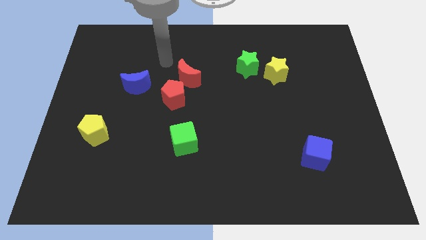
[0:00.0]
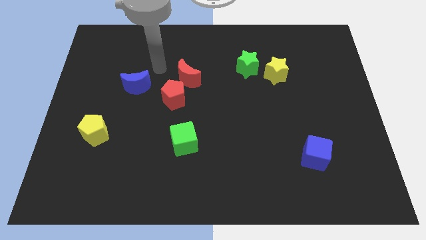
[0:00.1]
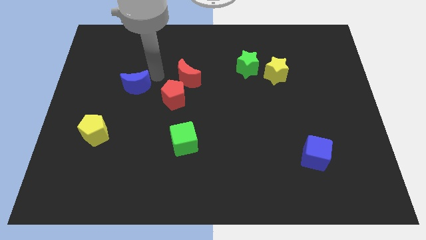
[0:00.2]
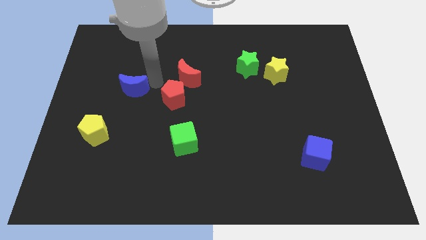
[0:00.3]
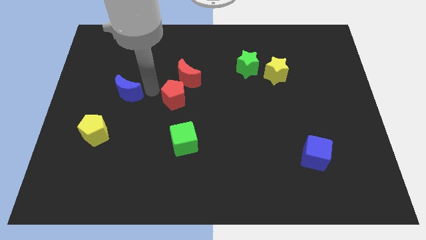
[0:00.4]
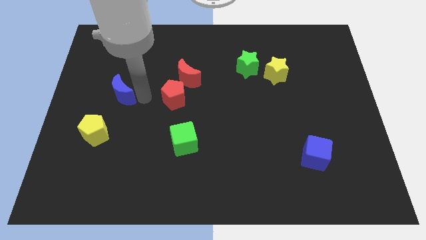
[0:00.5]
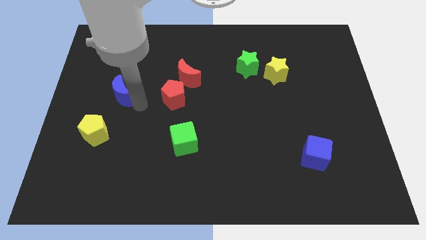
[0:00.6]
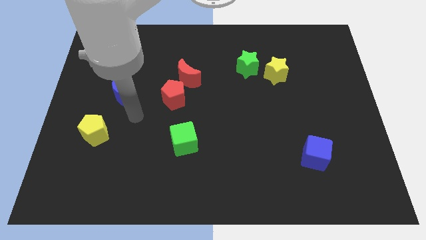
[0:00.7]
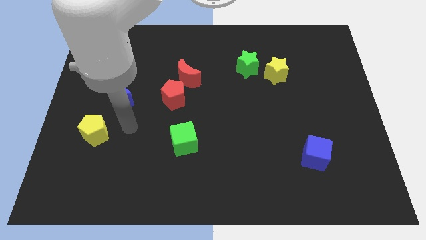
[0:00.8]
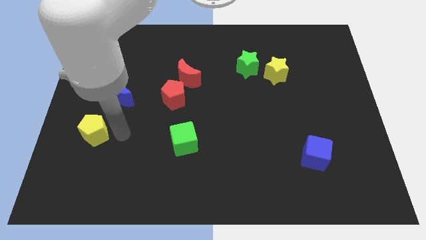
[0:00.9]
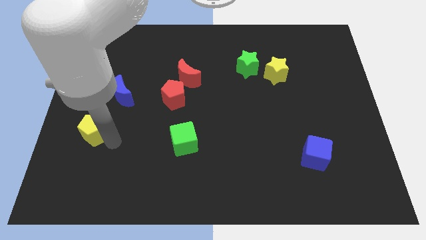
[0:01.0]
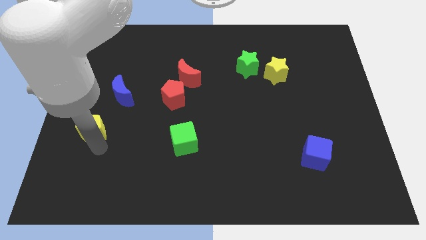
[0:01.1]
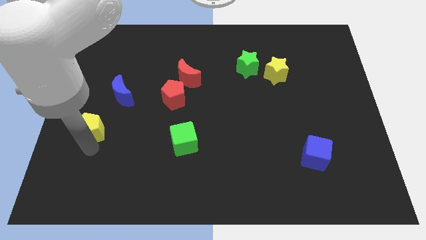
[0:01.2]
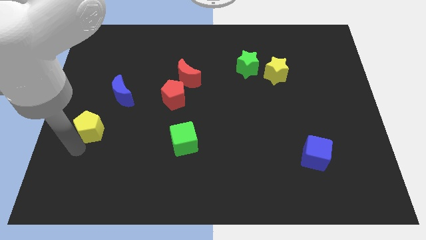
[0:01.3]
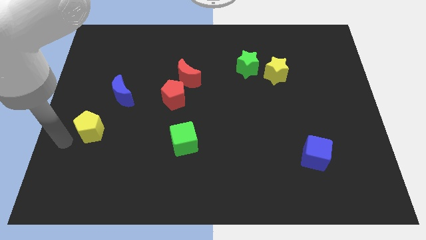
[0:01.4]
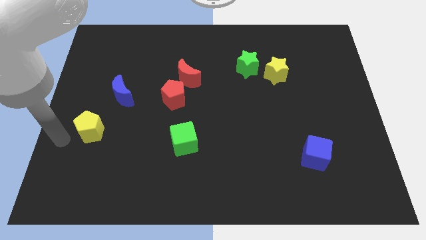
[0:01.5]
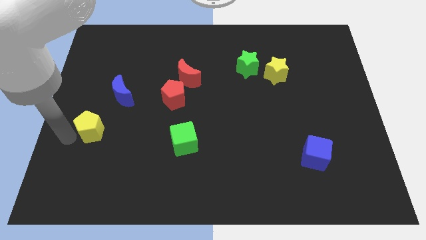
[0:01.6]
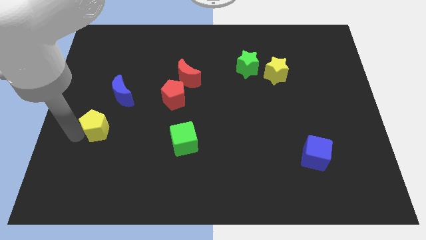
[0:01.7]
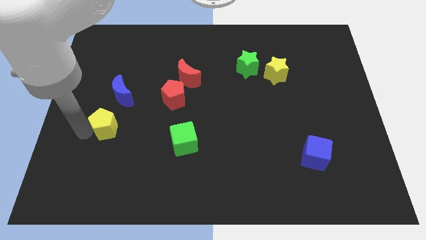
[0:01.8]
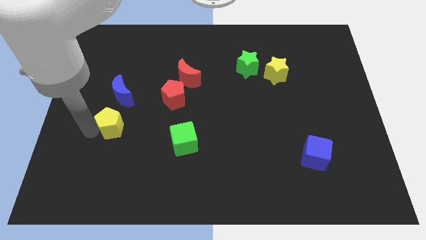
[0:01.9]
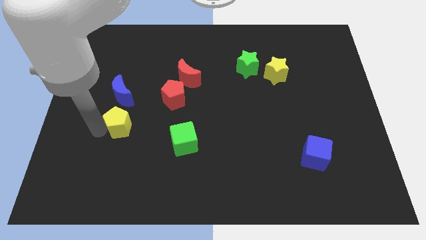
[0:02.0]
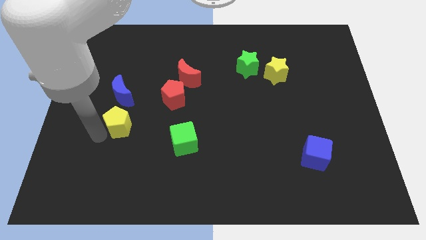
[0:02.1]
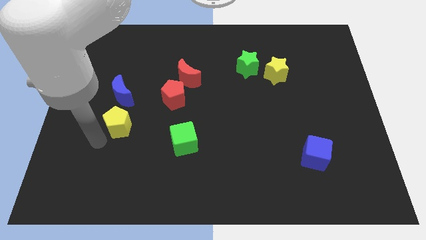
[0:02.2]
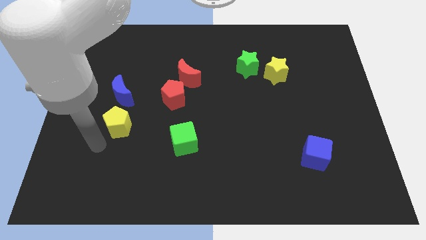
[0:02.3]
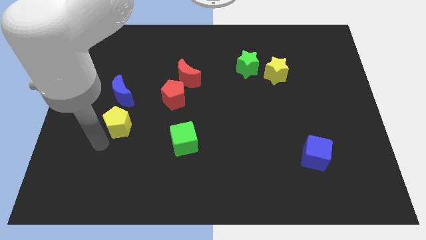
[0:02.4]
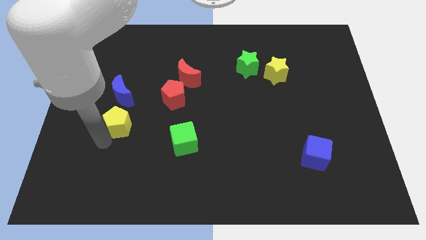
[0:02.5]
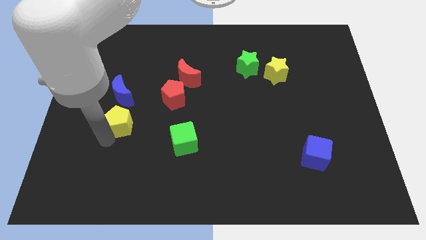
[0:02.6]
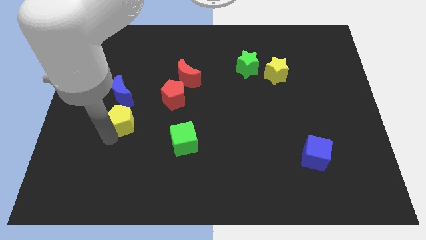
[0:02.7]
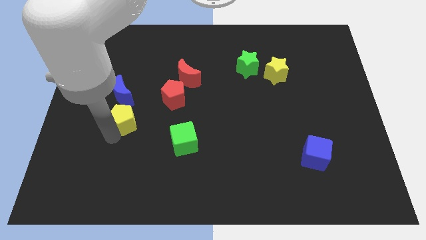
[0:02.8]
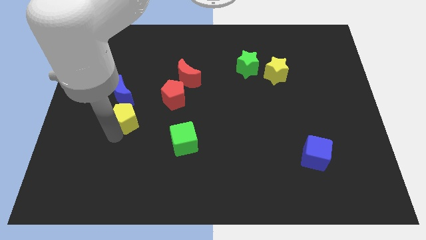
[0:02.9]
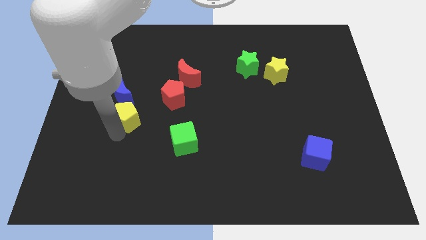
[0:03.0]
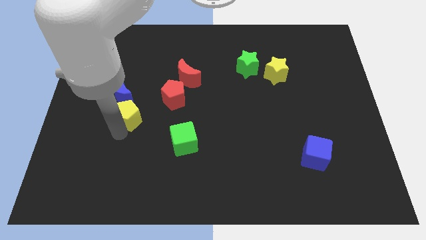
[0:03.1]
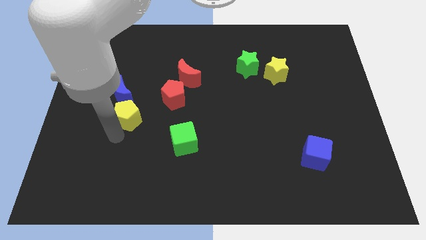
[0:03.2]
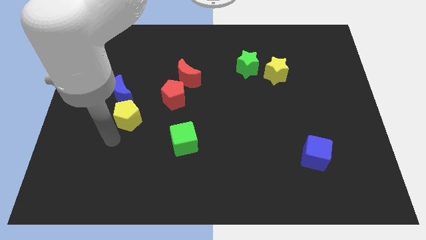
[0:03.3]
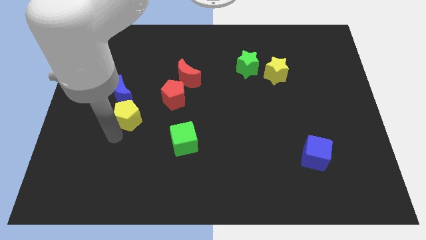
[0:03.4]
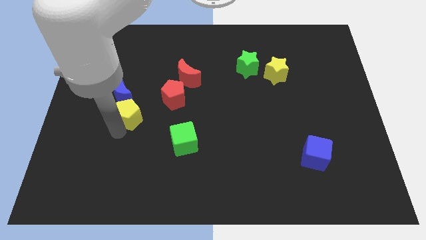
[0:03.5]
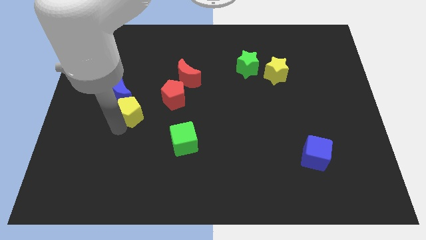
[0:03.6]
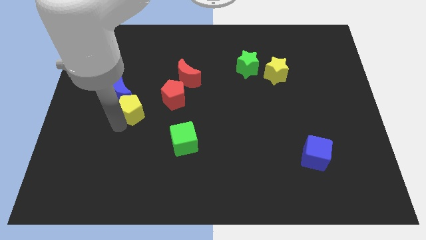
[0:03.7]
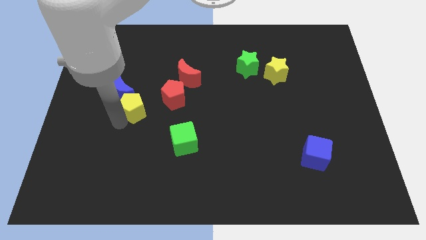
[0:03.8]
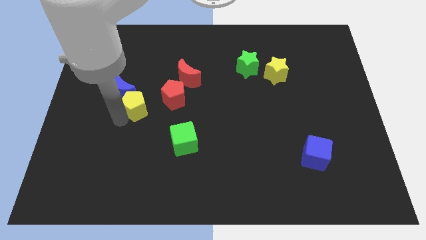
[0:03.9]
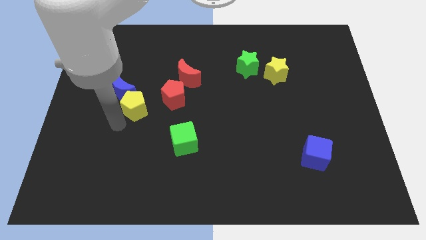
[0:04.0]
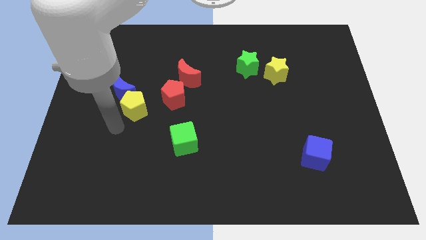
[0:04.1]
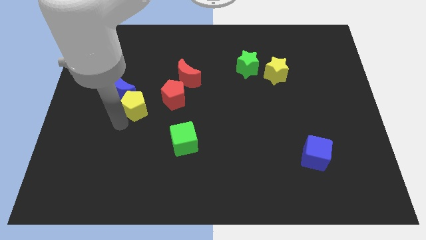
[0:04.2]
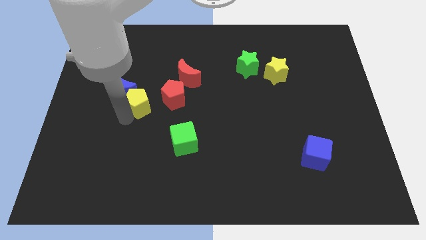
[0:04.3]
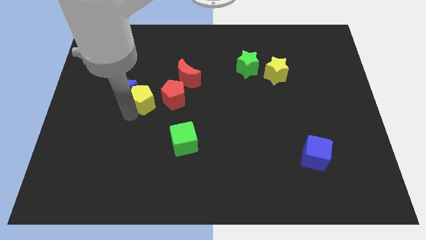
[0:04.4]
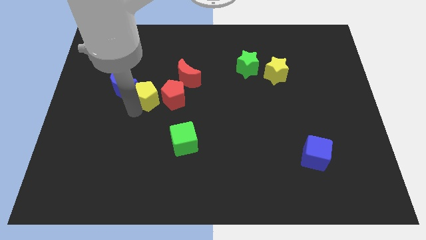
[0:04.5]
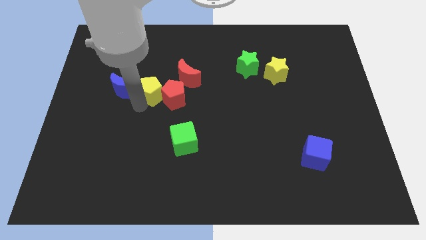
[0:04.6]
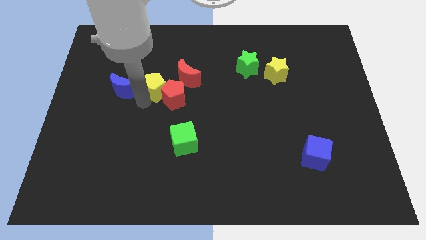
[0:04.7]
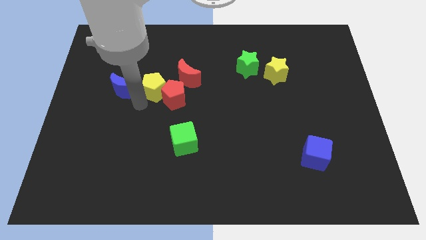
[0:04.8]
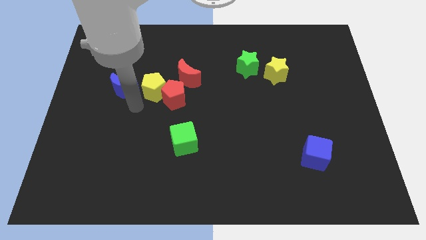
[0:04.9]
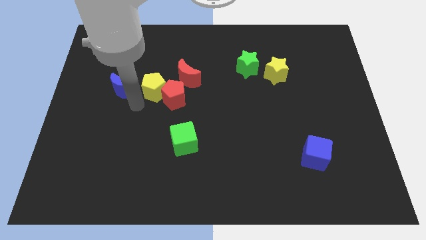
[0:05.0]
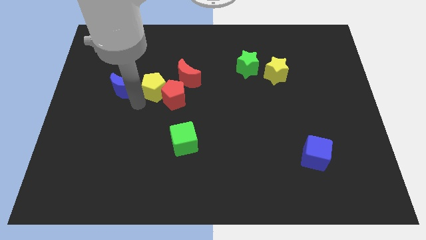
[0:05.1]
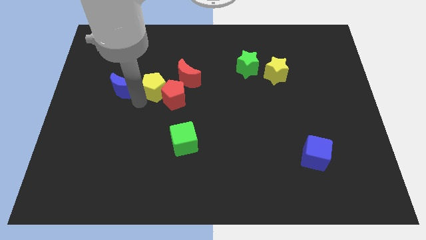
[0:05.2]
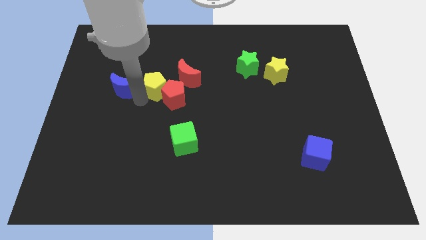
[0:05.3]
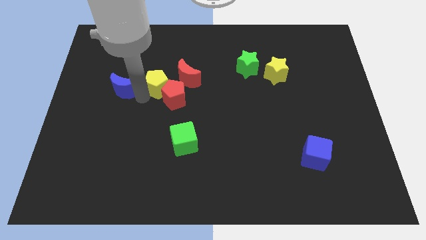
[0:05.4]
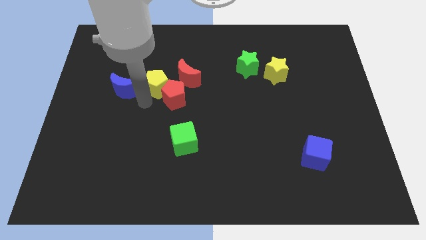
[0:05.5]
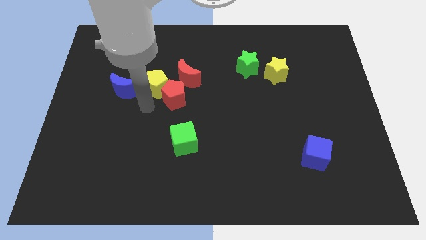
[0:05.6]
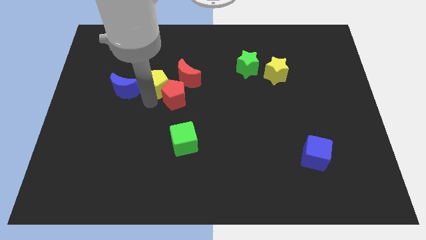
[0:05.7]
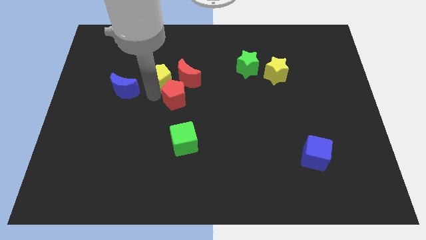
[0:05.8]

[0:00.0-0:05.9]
move the yellow pentagon upwards and to the right

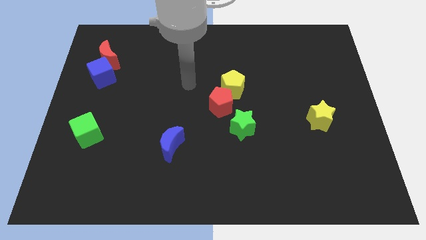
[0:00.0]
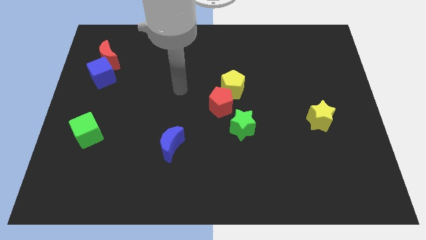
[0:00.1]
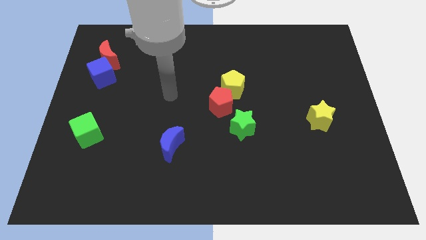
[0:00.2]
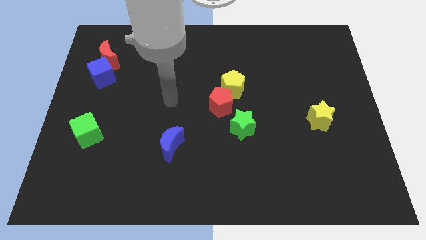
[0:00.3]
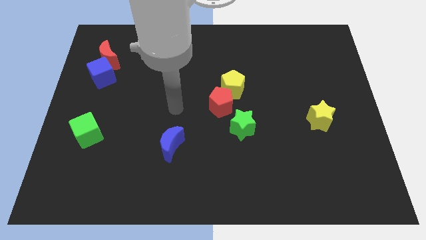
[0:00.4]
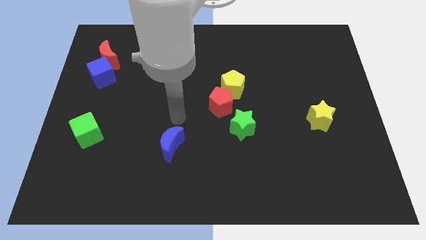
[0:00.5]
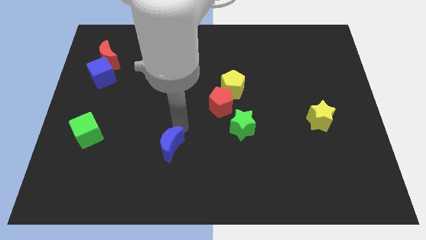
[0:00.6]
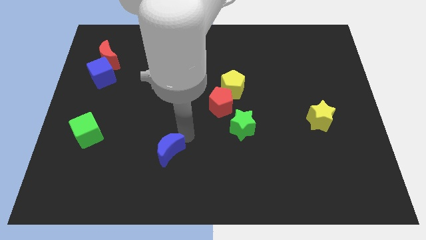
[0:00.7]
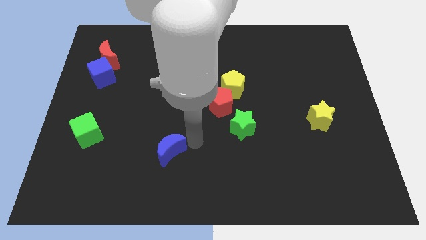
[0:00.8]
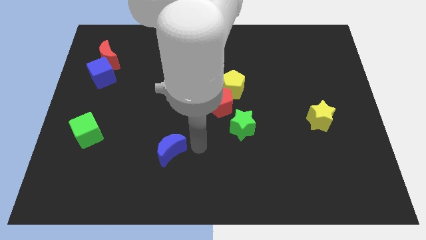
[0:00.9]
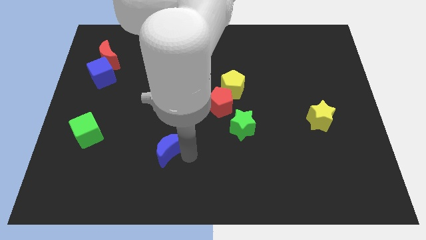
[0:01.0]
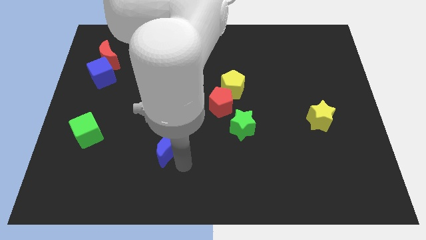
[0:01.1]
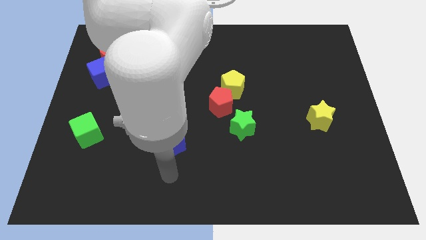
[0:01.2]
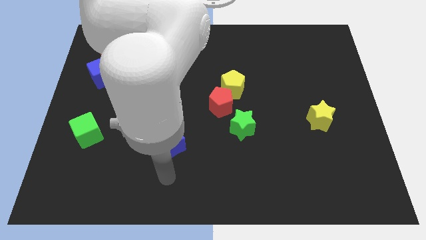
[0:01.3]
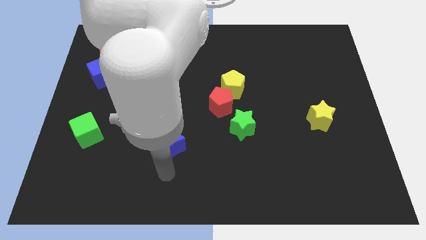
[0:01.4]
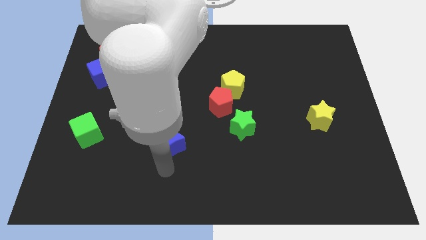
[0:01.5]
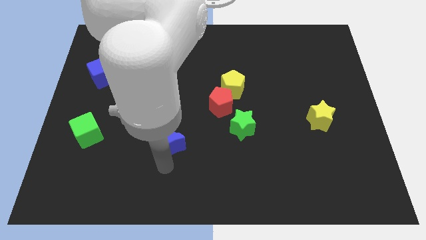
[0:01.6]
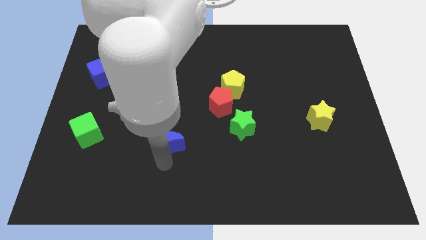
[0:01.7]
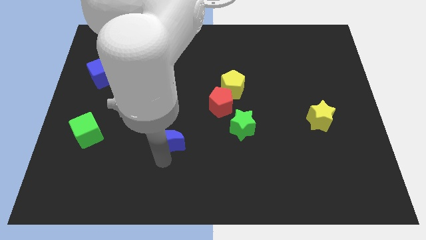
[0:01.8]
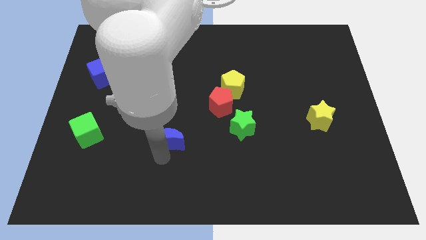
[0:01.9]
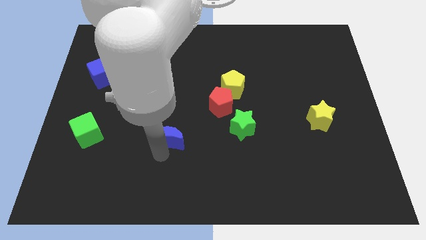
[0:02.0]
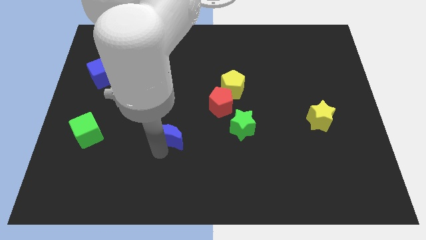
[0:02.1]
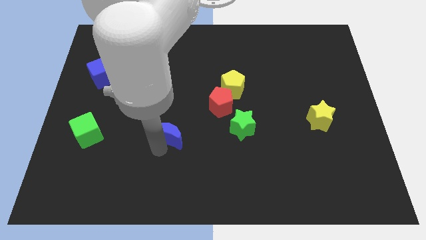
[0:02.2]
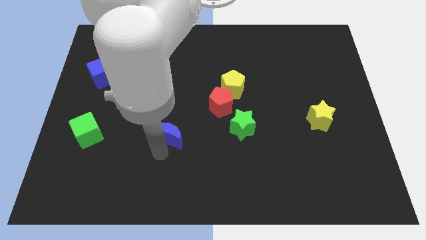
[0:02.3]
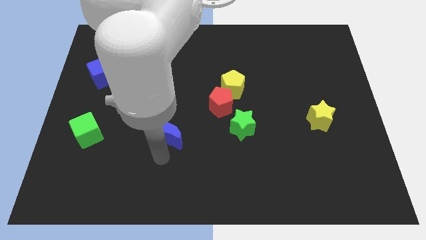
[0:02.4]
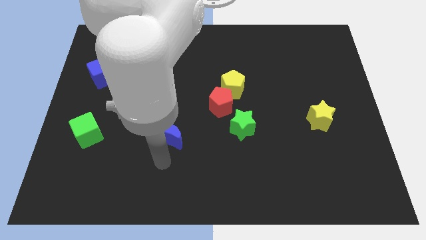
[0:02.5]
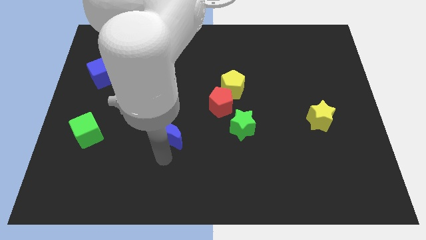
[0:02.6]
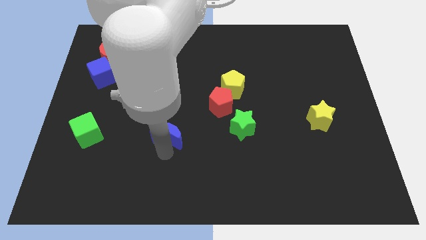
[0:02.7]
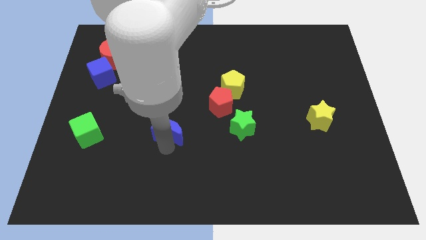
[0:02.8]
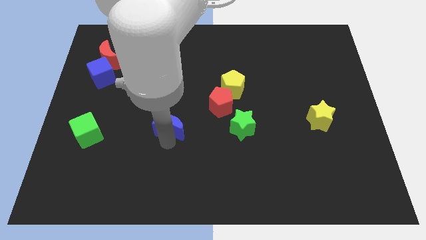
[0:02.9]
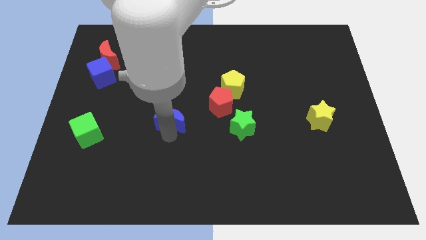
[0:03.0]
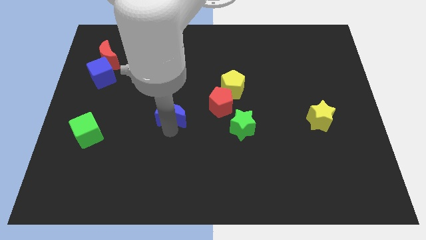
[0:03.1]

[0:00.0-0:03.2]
slightly slide the blue moon up
